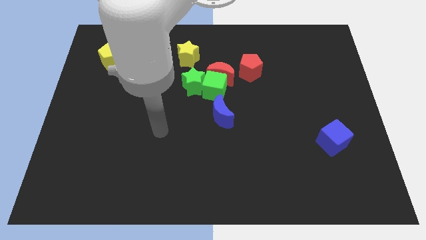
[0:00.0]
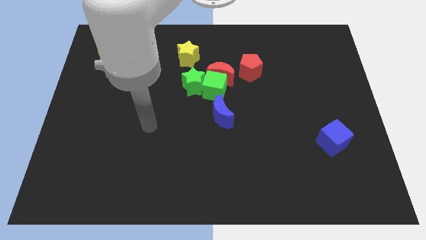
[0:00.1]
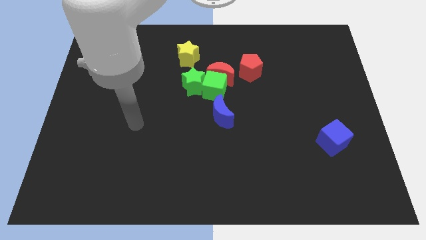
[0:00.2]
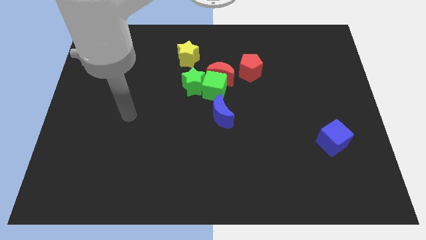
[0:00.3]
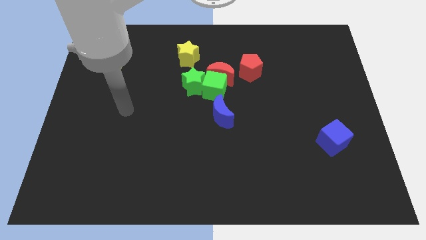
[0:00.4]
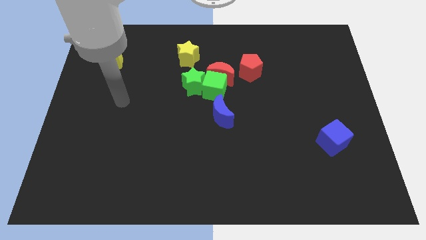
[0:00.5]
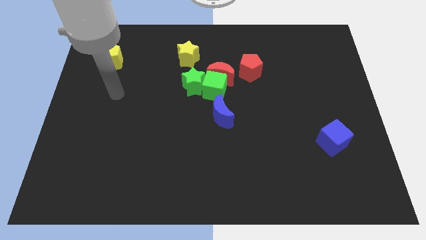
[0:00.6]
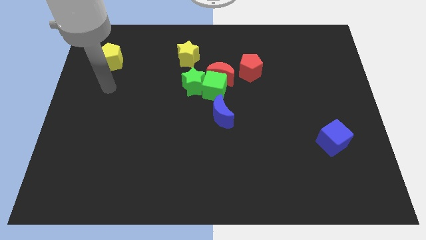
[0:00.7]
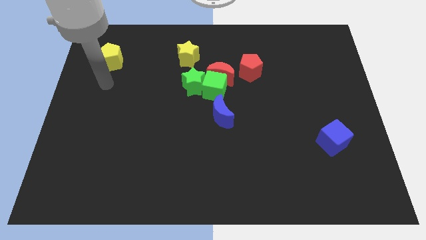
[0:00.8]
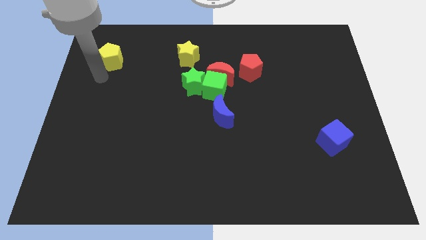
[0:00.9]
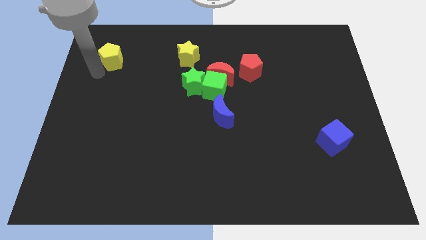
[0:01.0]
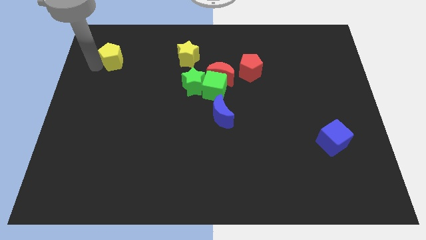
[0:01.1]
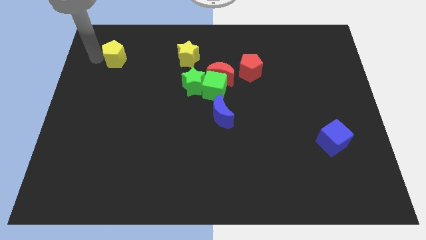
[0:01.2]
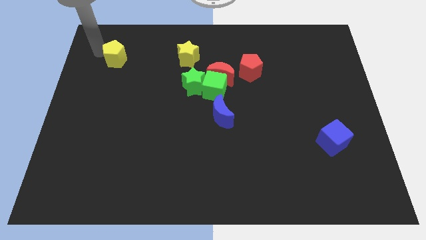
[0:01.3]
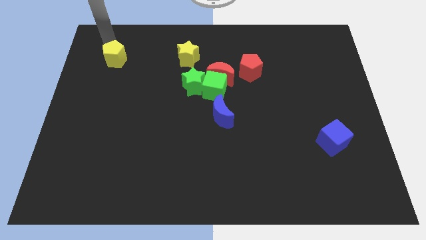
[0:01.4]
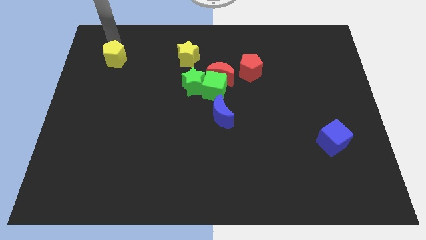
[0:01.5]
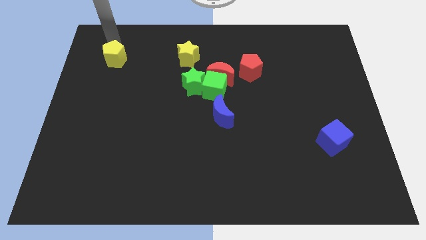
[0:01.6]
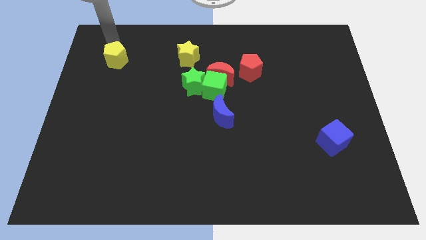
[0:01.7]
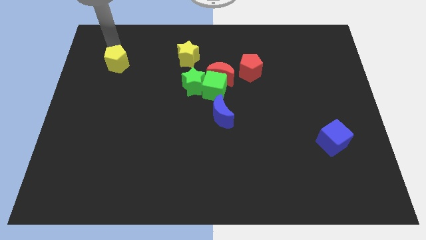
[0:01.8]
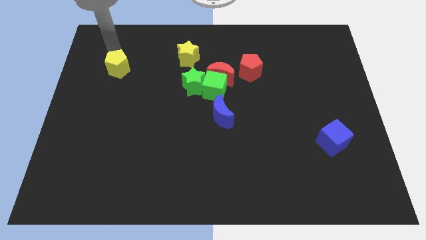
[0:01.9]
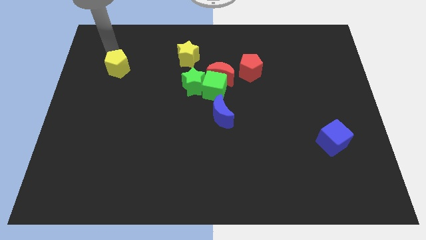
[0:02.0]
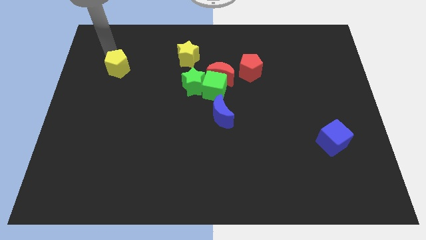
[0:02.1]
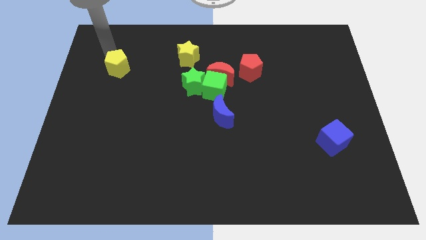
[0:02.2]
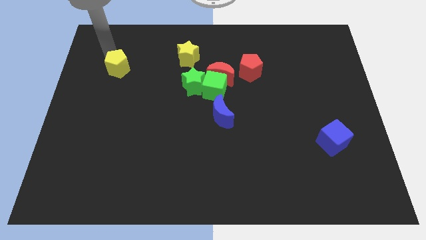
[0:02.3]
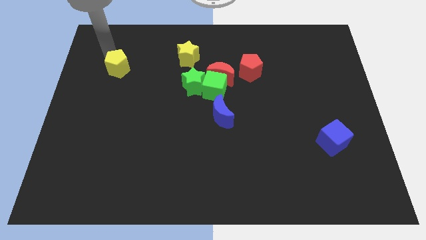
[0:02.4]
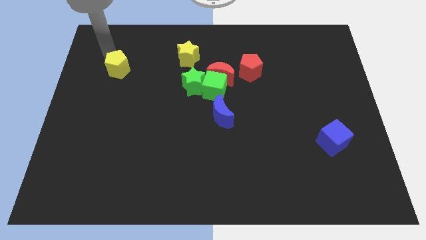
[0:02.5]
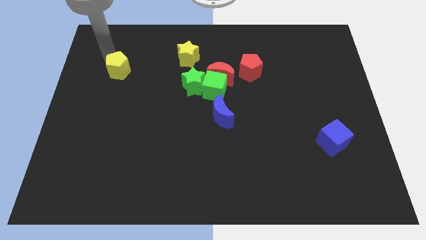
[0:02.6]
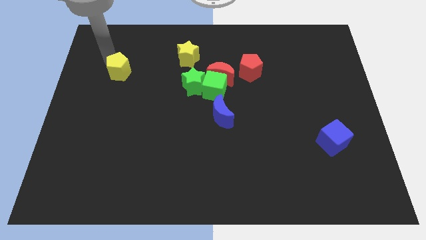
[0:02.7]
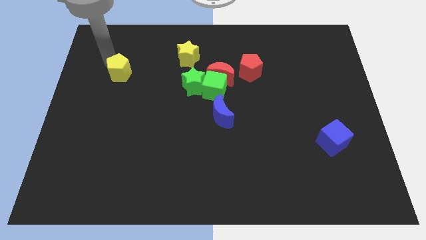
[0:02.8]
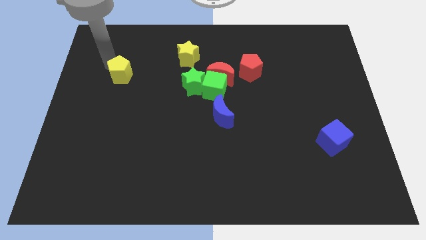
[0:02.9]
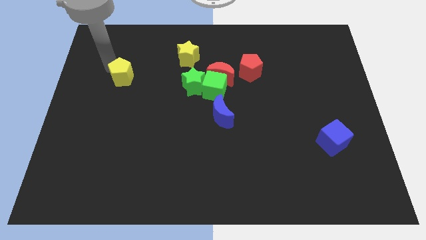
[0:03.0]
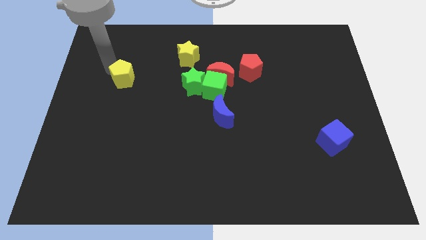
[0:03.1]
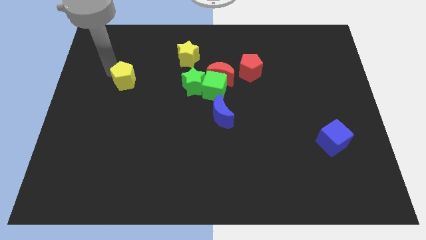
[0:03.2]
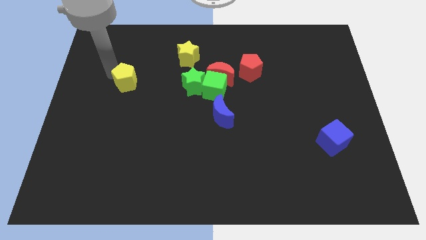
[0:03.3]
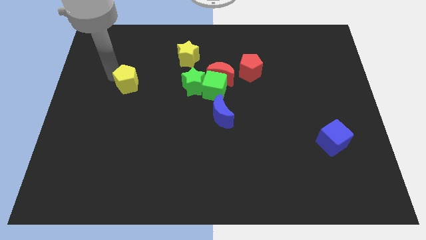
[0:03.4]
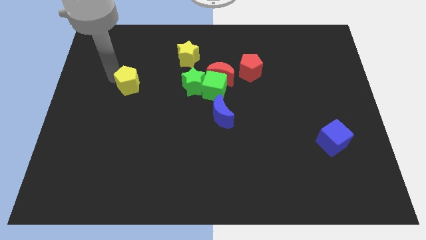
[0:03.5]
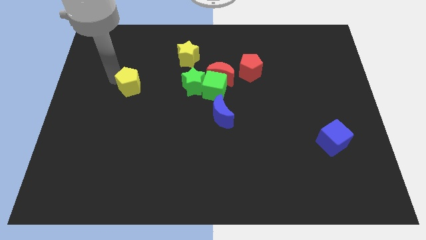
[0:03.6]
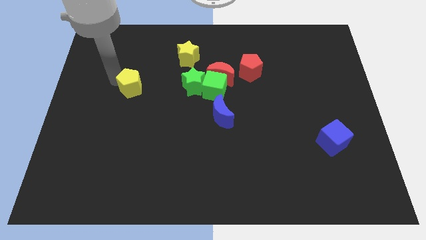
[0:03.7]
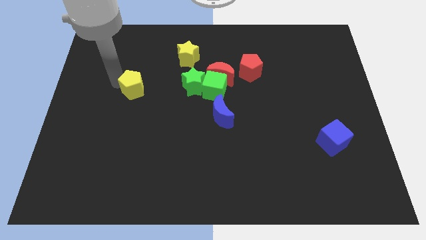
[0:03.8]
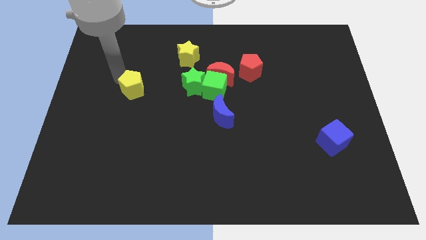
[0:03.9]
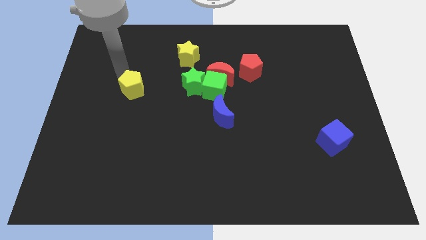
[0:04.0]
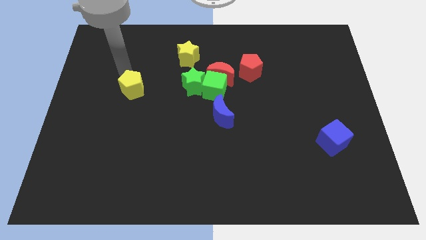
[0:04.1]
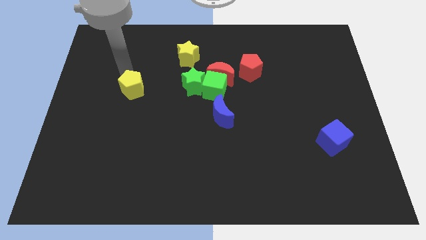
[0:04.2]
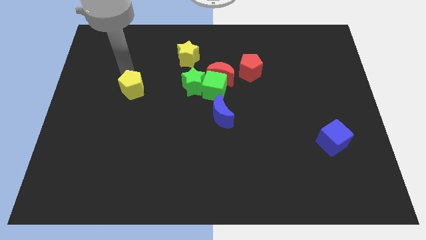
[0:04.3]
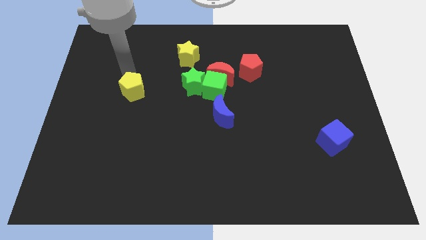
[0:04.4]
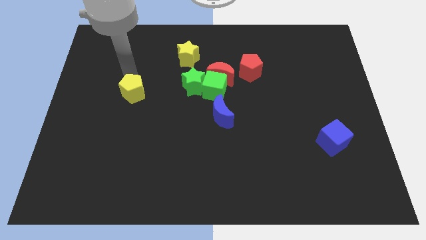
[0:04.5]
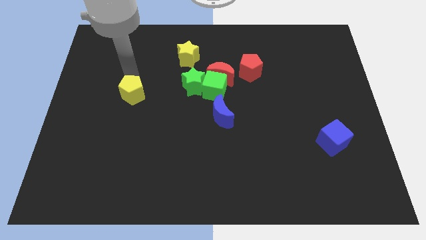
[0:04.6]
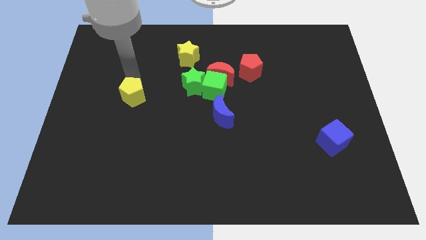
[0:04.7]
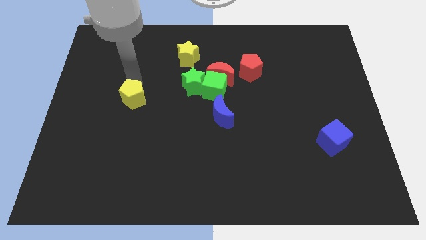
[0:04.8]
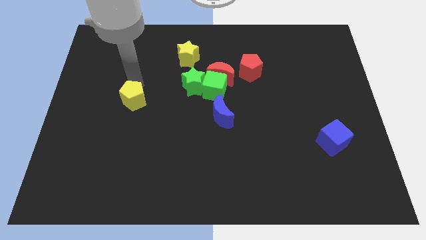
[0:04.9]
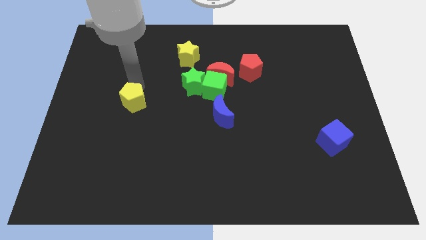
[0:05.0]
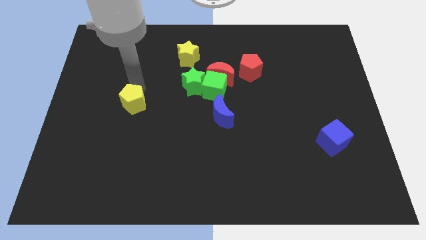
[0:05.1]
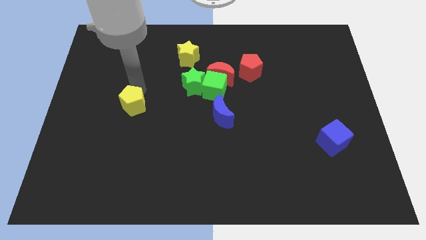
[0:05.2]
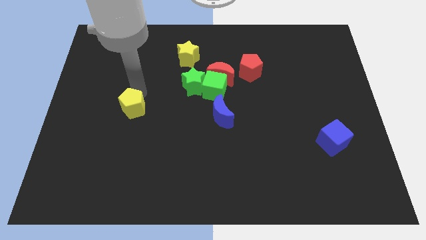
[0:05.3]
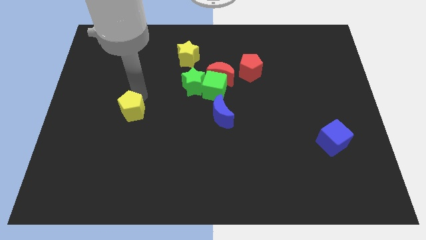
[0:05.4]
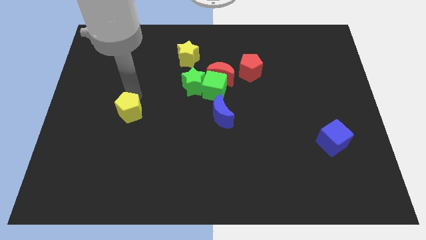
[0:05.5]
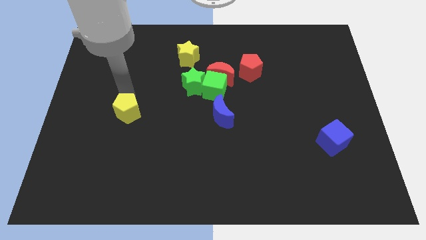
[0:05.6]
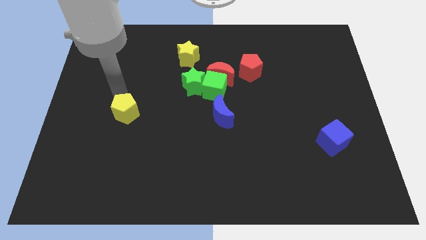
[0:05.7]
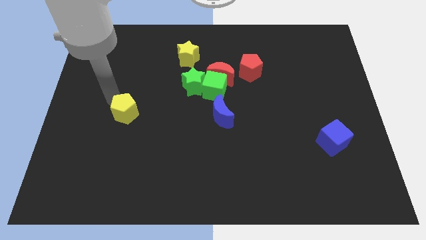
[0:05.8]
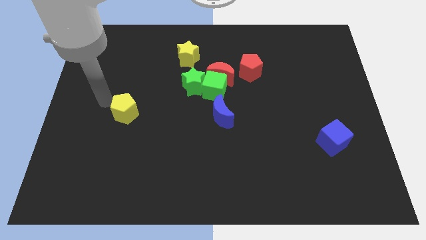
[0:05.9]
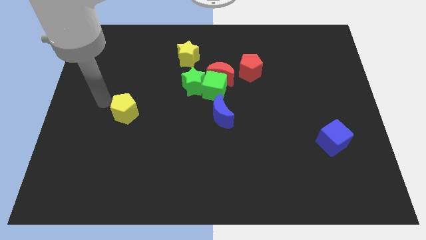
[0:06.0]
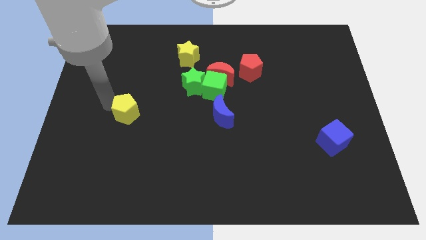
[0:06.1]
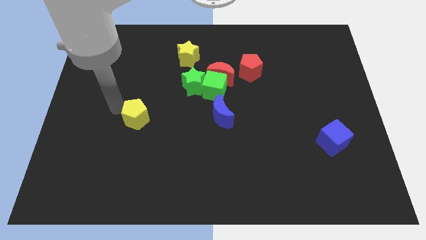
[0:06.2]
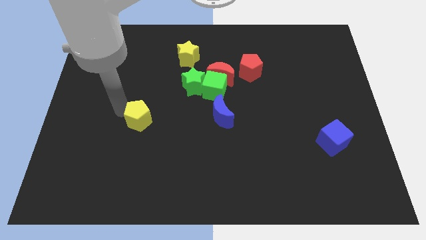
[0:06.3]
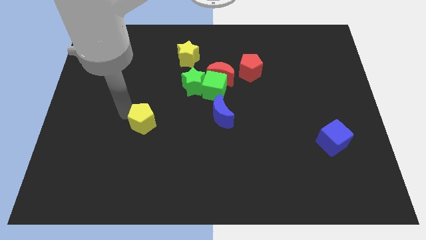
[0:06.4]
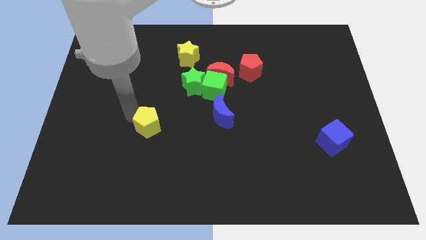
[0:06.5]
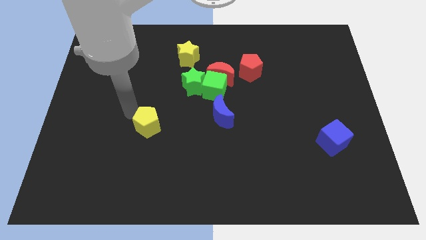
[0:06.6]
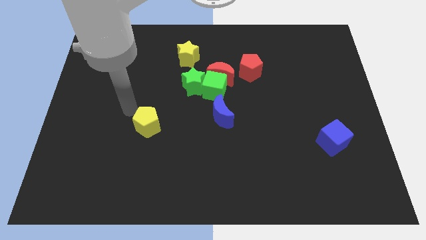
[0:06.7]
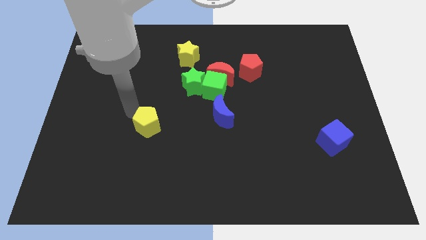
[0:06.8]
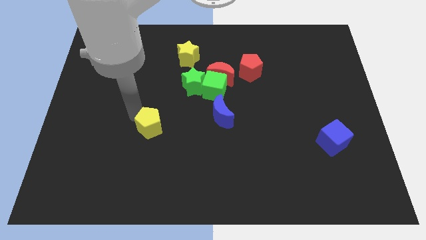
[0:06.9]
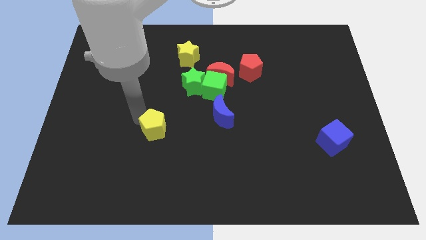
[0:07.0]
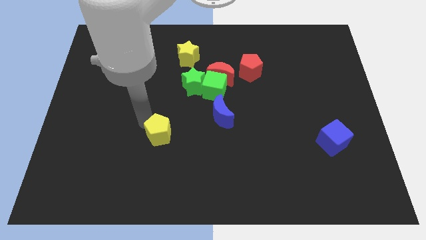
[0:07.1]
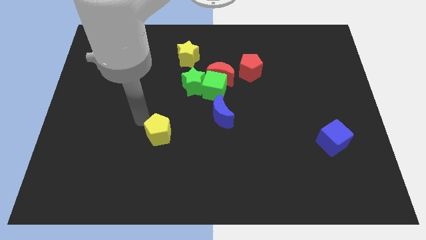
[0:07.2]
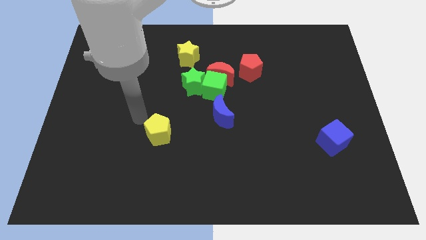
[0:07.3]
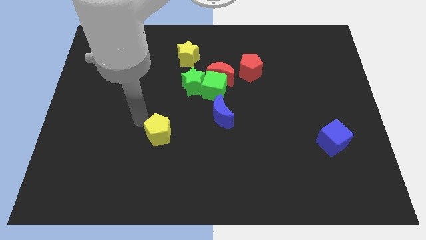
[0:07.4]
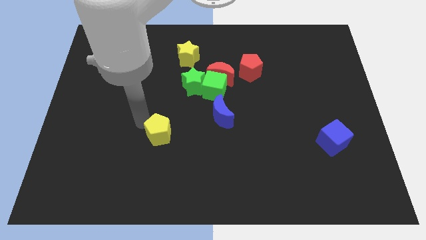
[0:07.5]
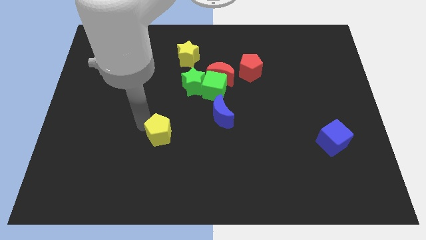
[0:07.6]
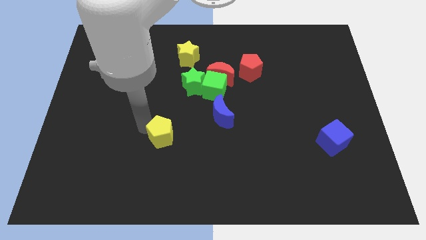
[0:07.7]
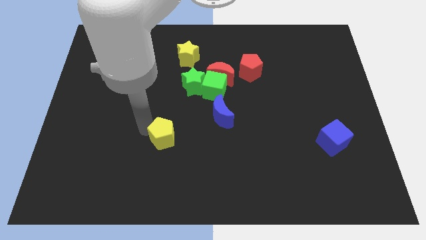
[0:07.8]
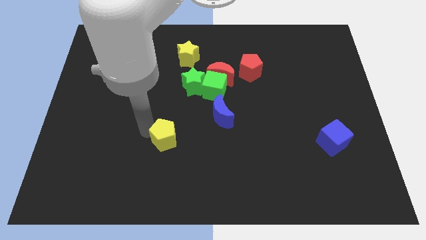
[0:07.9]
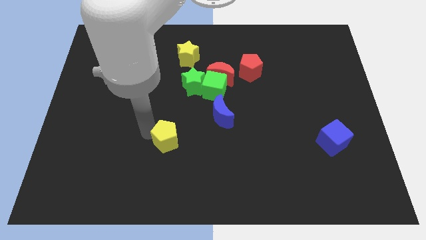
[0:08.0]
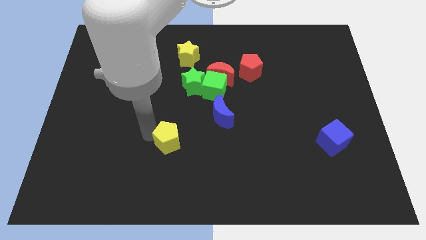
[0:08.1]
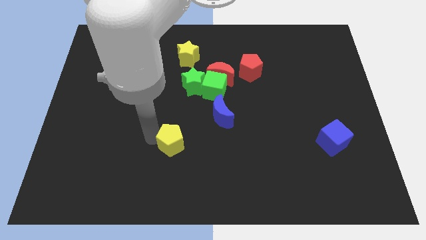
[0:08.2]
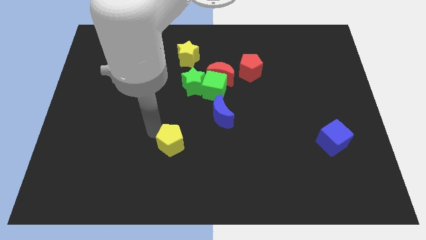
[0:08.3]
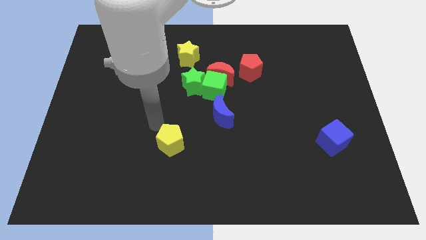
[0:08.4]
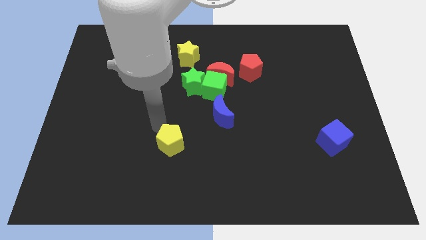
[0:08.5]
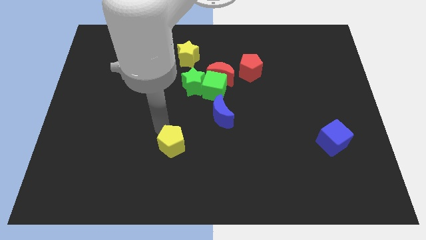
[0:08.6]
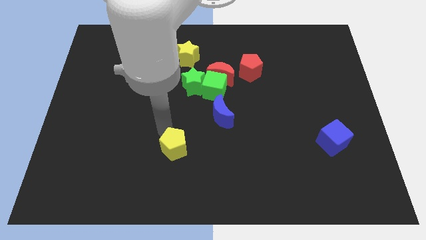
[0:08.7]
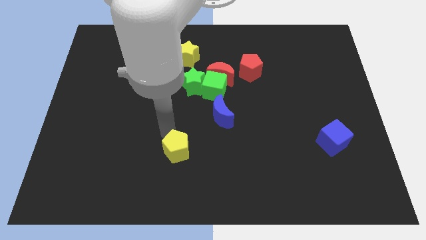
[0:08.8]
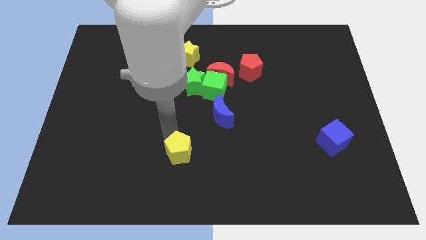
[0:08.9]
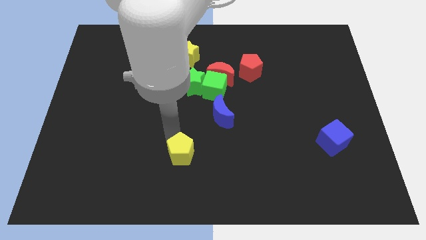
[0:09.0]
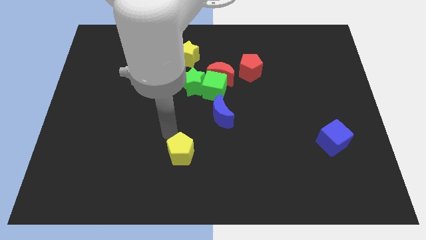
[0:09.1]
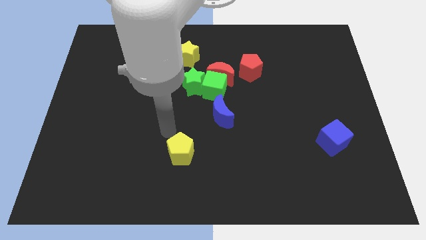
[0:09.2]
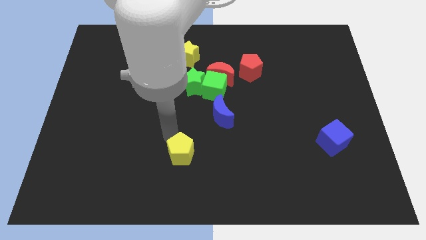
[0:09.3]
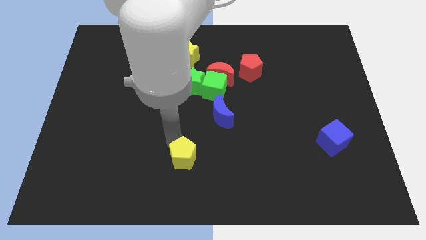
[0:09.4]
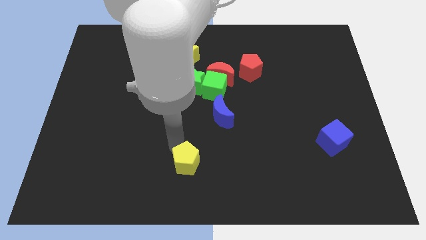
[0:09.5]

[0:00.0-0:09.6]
slide the yellow pentagon to the bottom side
